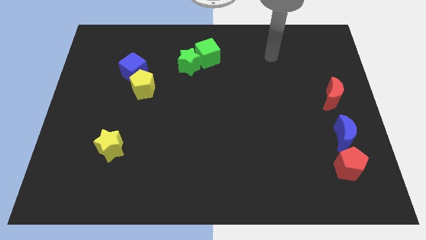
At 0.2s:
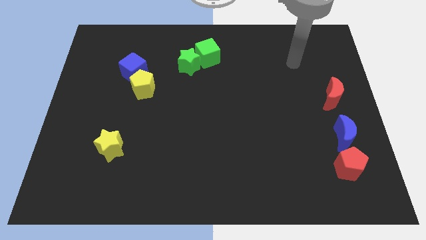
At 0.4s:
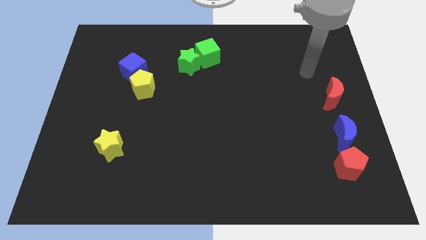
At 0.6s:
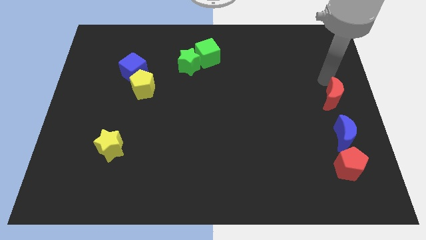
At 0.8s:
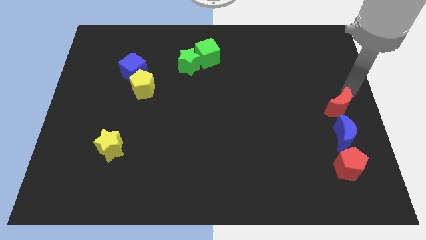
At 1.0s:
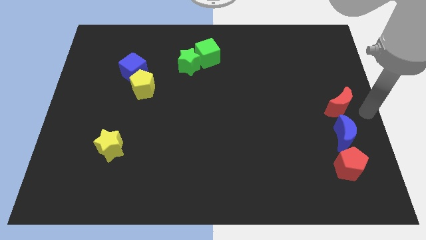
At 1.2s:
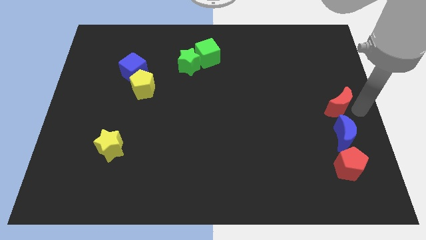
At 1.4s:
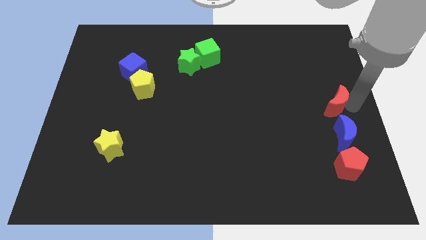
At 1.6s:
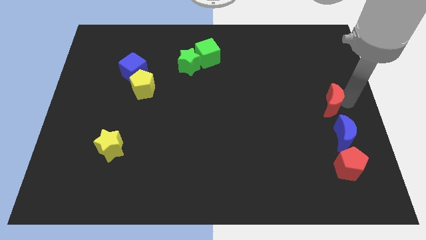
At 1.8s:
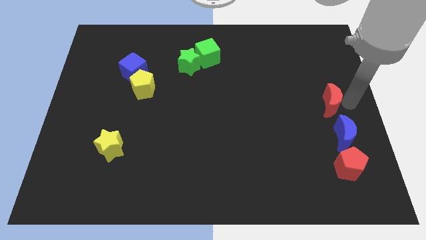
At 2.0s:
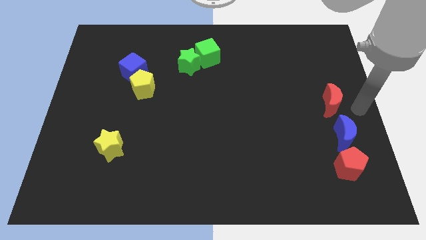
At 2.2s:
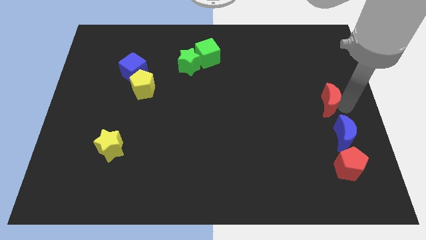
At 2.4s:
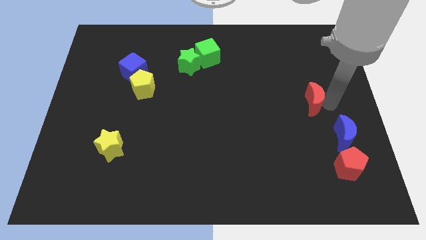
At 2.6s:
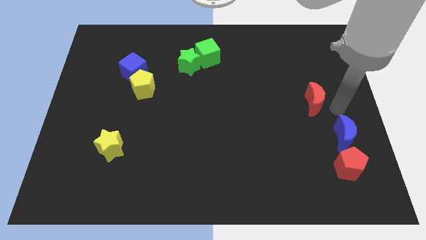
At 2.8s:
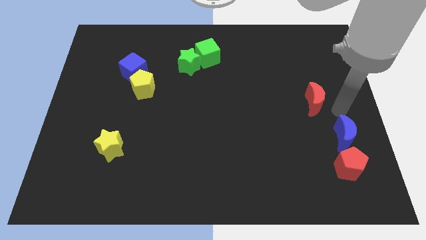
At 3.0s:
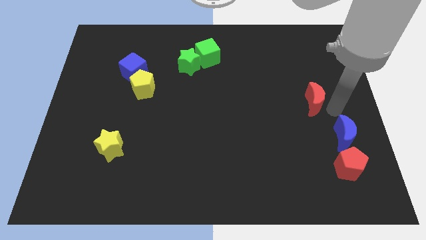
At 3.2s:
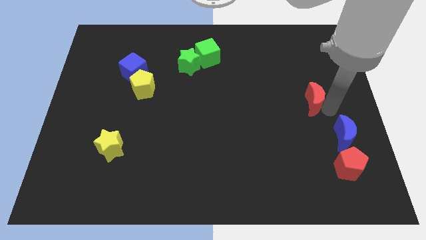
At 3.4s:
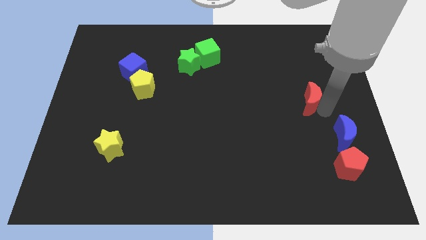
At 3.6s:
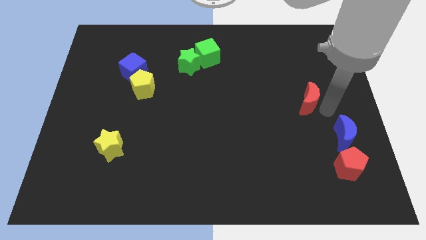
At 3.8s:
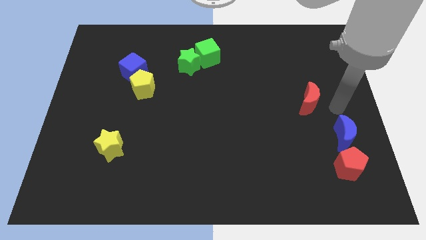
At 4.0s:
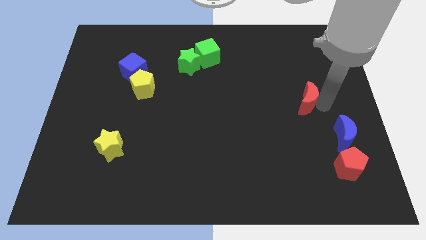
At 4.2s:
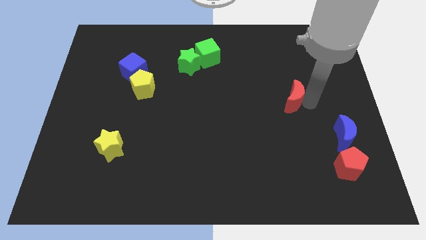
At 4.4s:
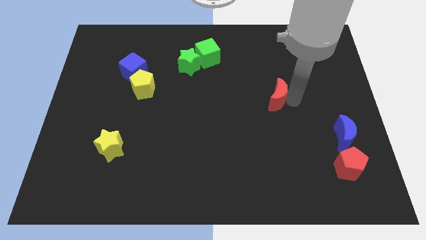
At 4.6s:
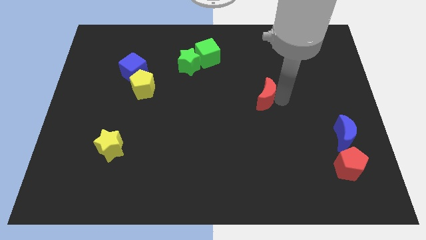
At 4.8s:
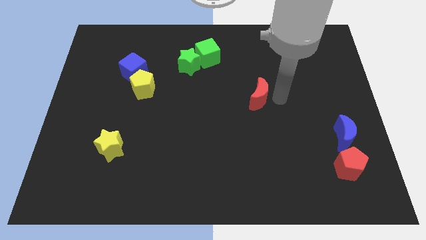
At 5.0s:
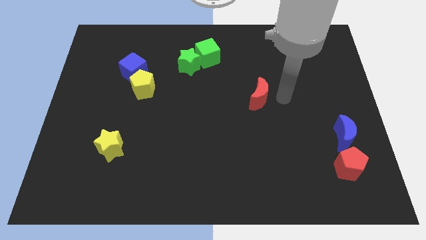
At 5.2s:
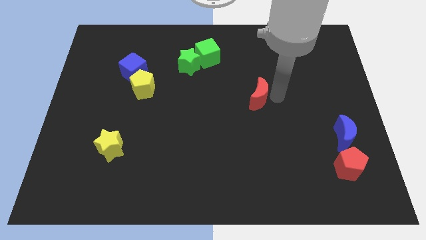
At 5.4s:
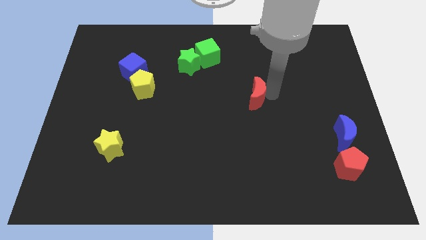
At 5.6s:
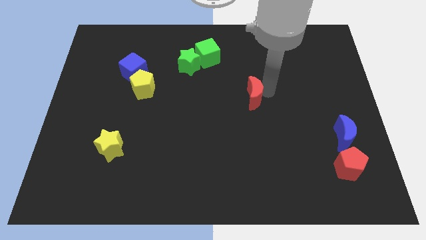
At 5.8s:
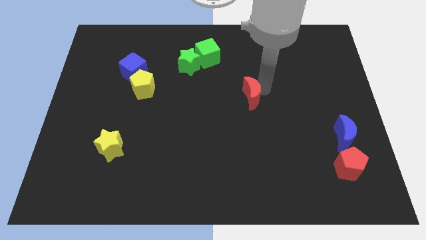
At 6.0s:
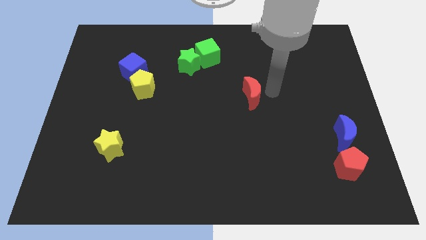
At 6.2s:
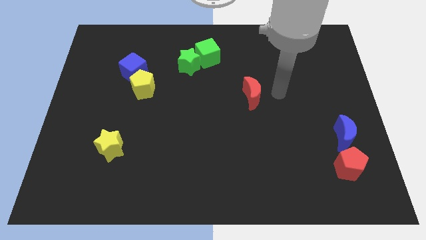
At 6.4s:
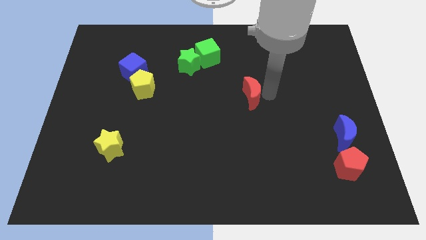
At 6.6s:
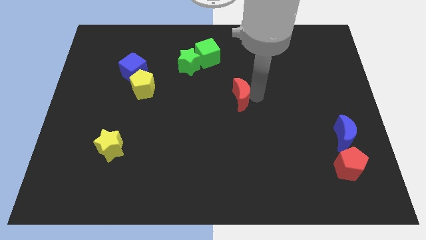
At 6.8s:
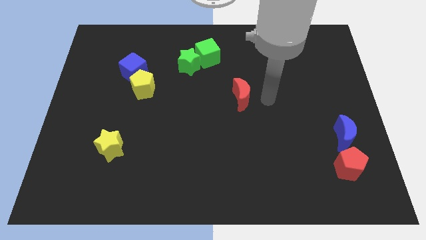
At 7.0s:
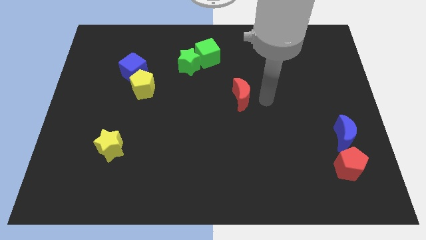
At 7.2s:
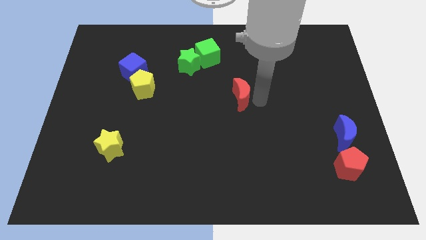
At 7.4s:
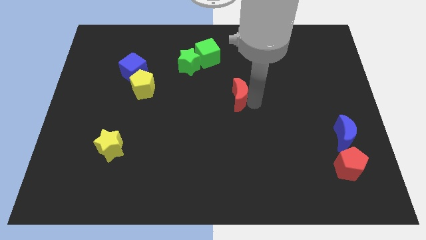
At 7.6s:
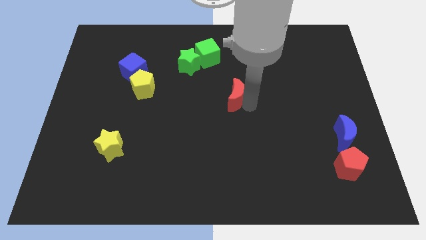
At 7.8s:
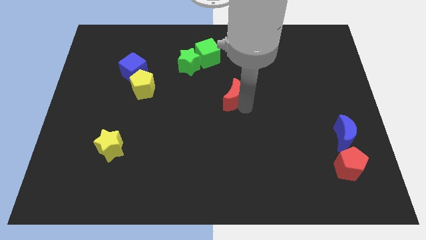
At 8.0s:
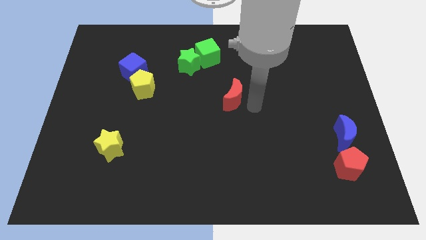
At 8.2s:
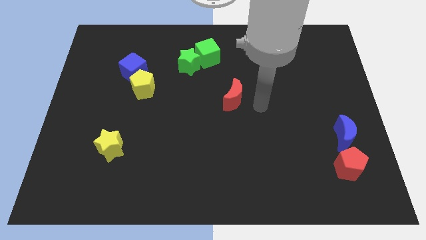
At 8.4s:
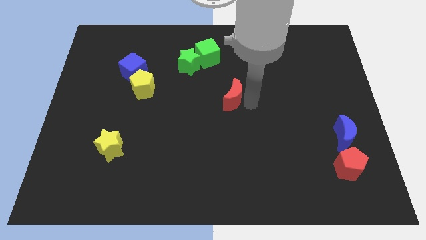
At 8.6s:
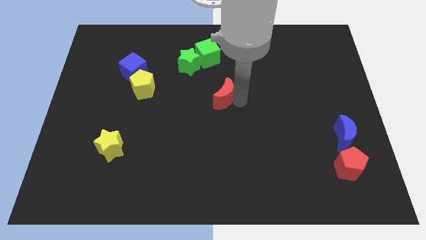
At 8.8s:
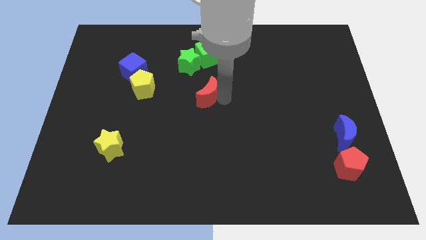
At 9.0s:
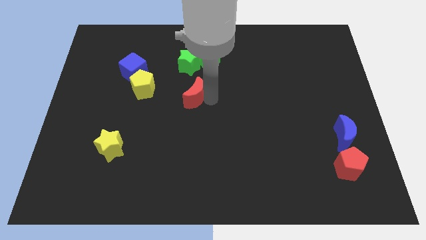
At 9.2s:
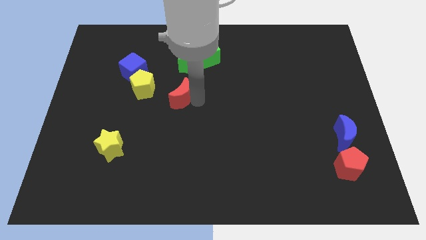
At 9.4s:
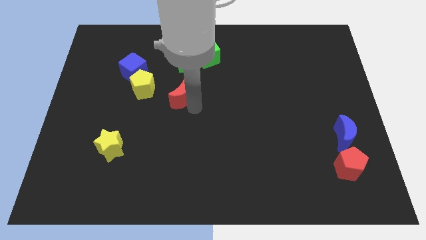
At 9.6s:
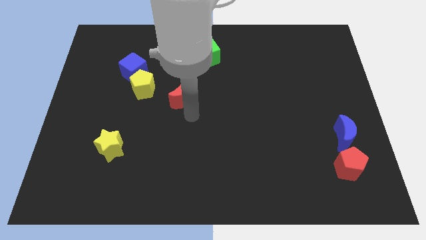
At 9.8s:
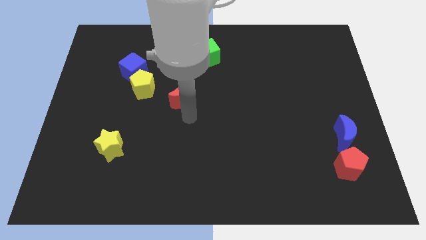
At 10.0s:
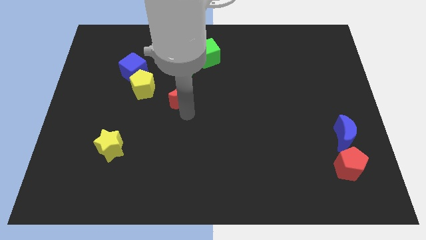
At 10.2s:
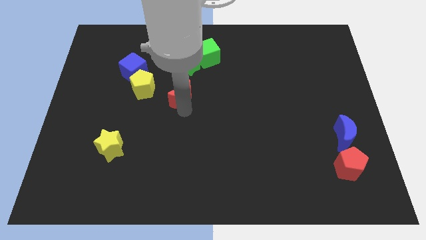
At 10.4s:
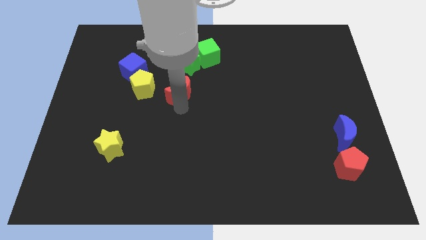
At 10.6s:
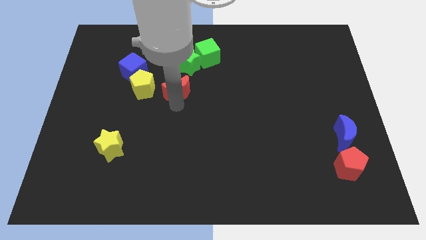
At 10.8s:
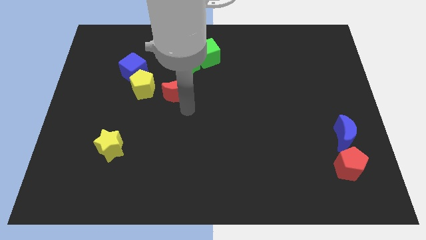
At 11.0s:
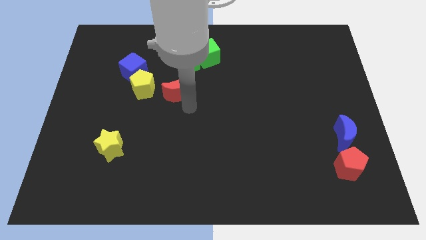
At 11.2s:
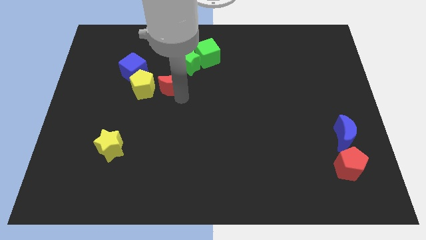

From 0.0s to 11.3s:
slide the red moon to the bottom left of the green star
